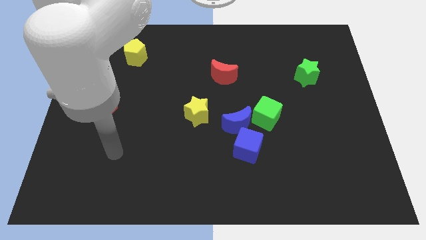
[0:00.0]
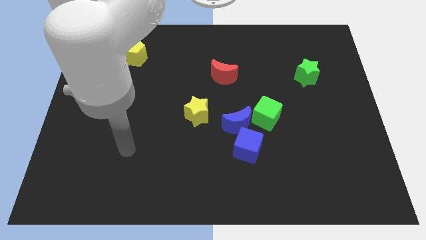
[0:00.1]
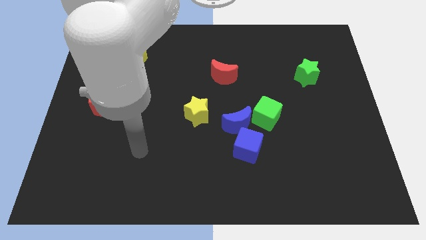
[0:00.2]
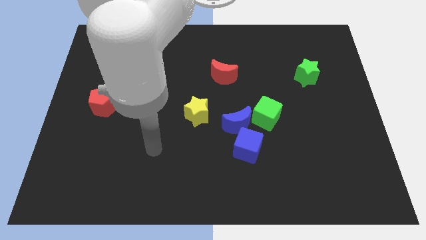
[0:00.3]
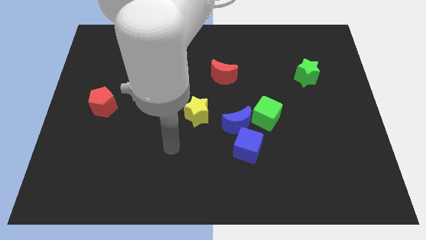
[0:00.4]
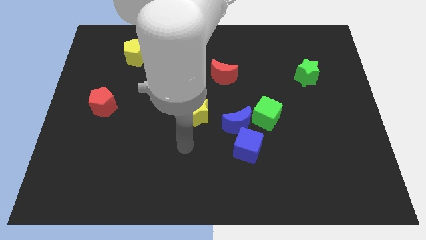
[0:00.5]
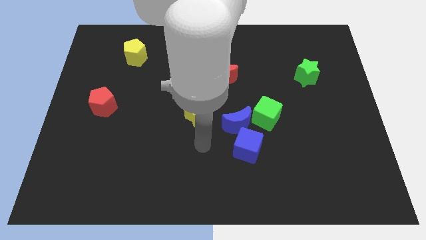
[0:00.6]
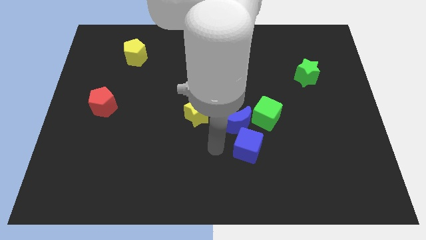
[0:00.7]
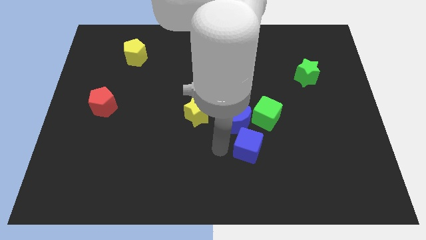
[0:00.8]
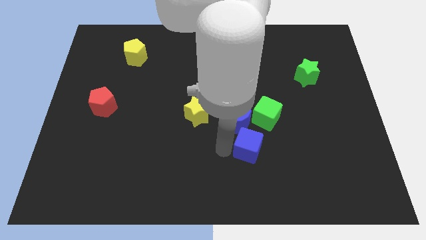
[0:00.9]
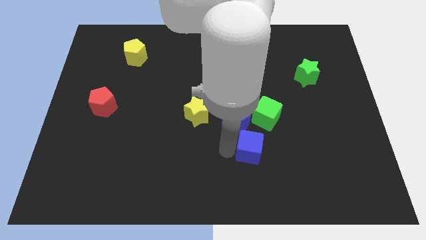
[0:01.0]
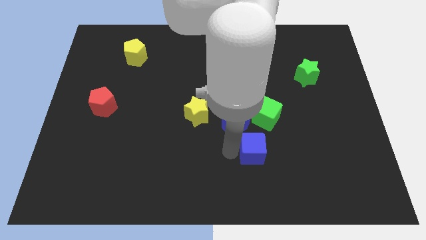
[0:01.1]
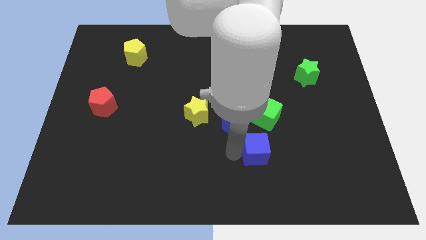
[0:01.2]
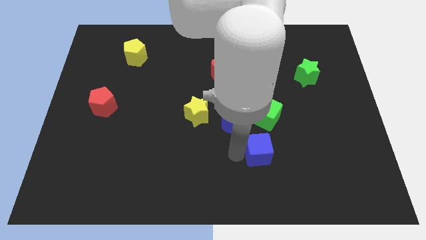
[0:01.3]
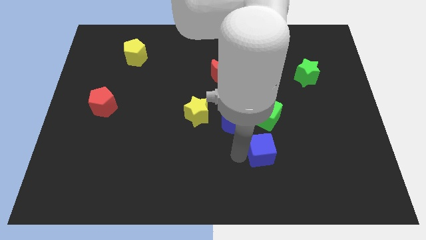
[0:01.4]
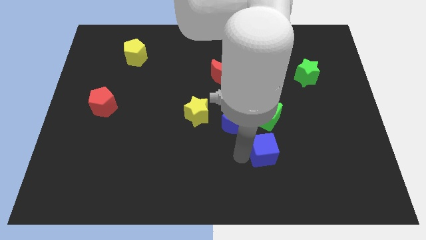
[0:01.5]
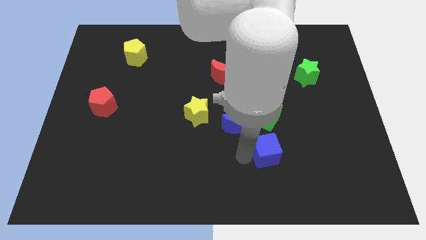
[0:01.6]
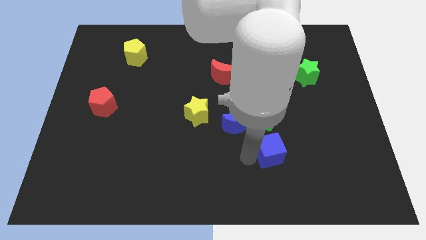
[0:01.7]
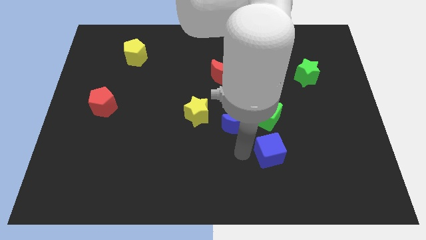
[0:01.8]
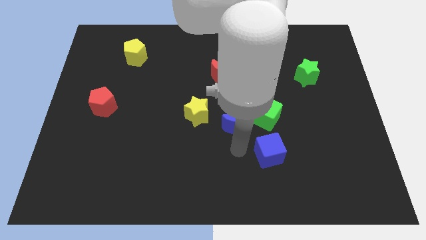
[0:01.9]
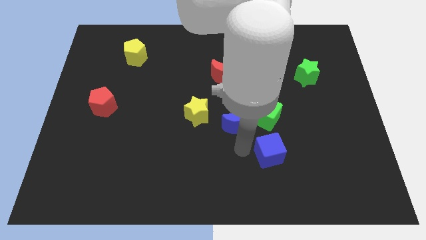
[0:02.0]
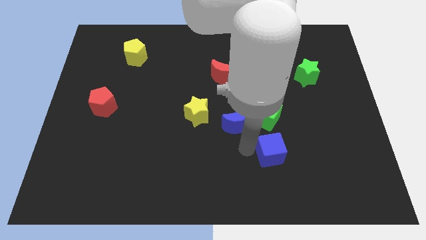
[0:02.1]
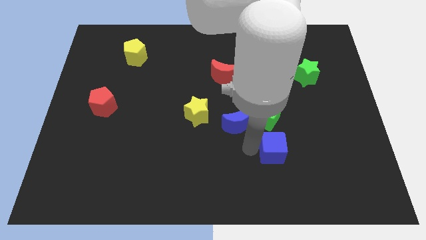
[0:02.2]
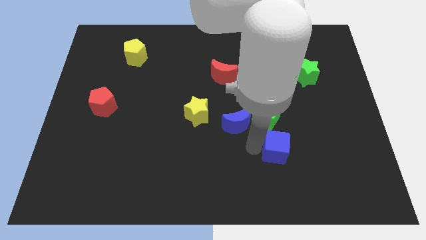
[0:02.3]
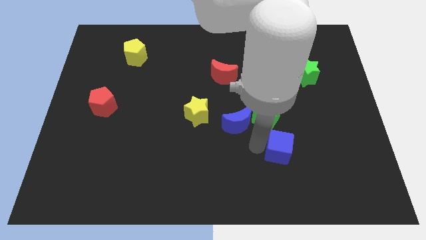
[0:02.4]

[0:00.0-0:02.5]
slightly push the blue cube right

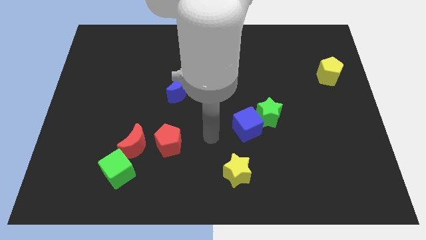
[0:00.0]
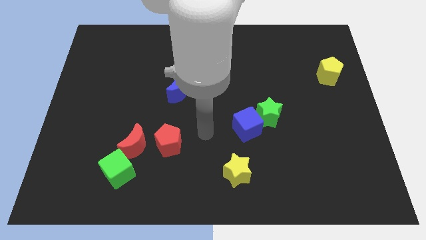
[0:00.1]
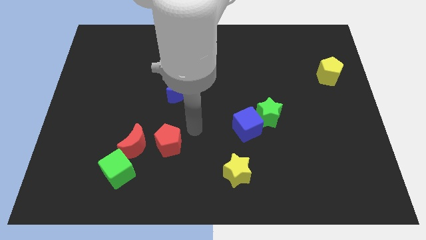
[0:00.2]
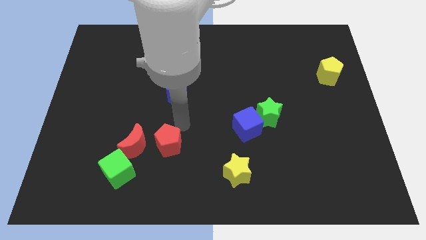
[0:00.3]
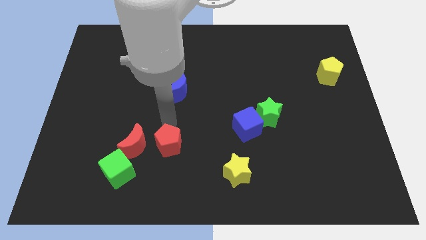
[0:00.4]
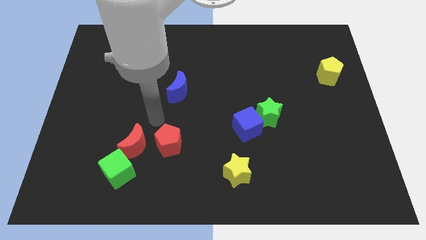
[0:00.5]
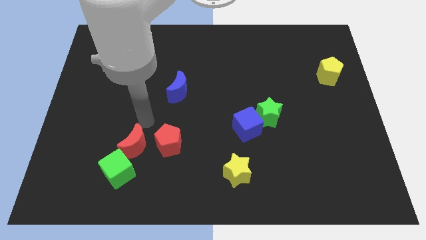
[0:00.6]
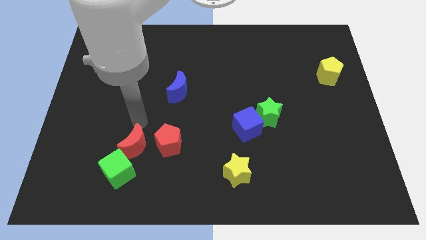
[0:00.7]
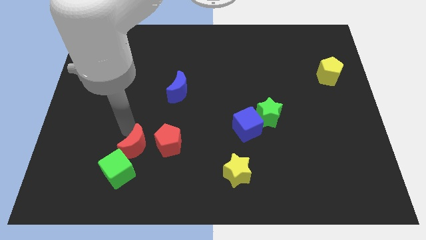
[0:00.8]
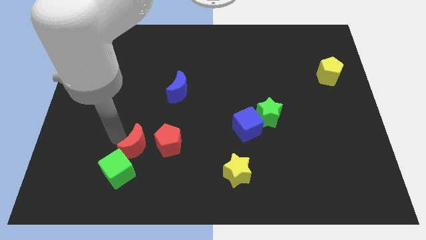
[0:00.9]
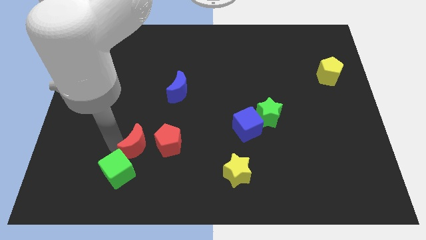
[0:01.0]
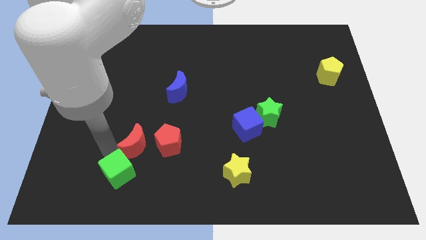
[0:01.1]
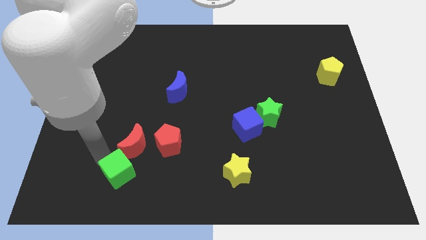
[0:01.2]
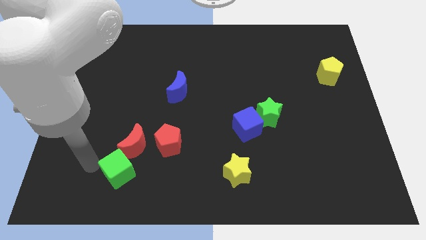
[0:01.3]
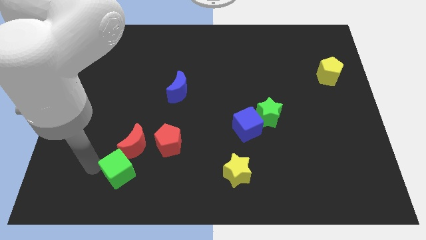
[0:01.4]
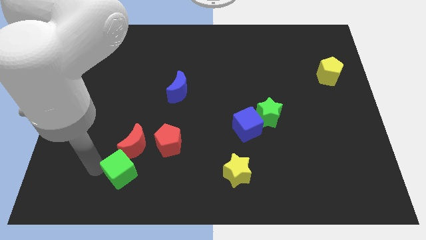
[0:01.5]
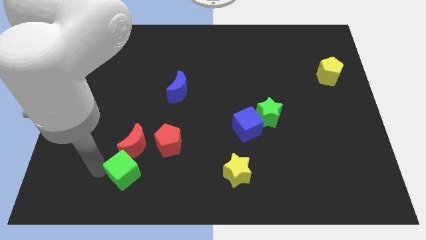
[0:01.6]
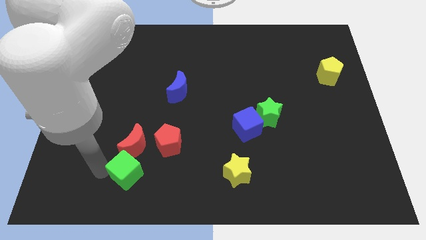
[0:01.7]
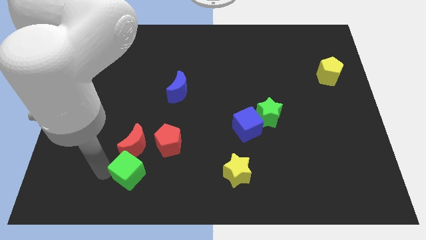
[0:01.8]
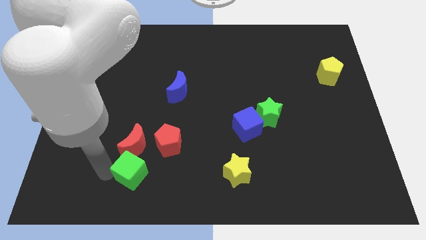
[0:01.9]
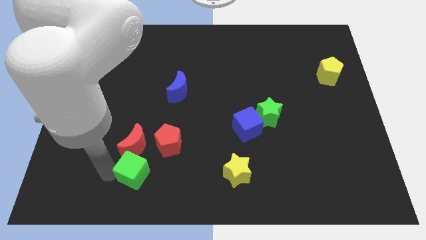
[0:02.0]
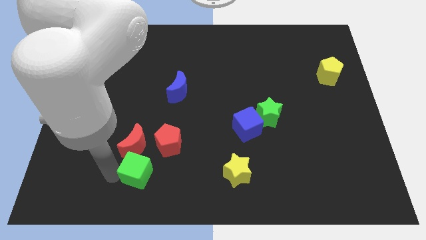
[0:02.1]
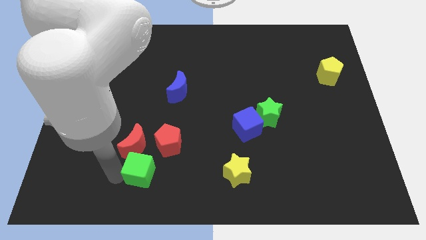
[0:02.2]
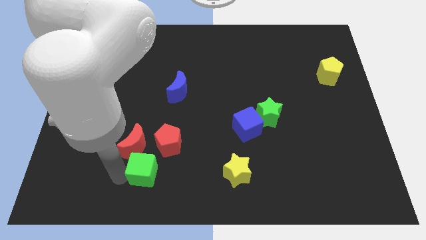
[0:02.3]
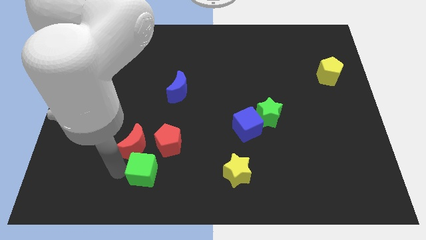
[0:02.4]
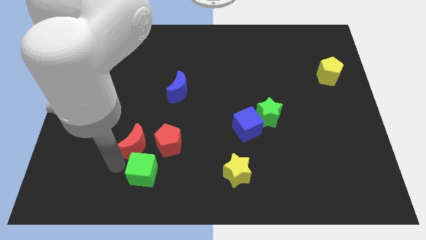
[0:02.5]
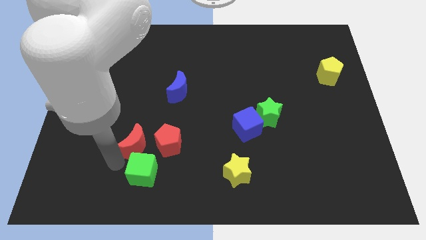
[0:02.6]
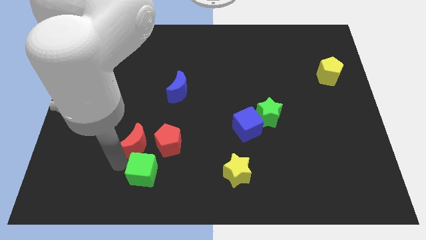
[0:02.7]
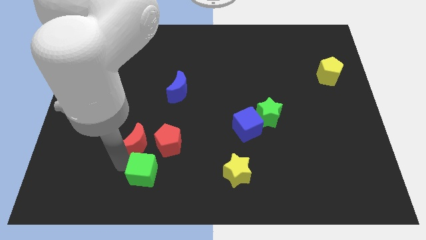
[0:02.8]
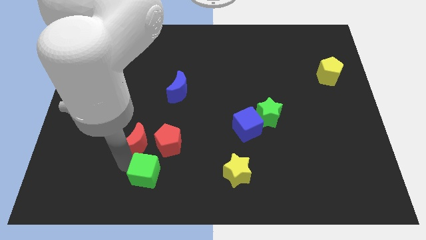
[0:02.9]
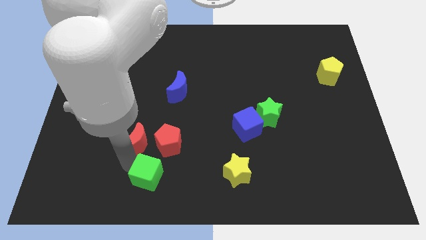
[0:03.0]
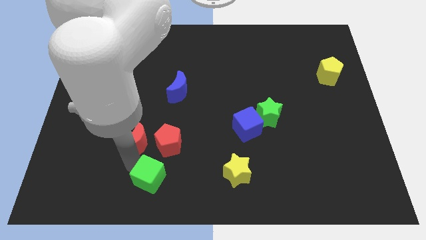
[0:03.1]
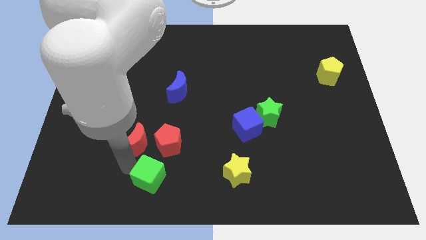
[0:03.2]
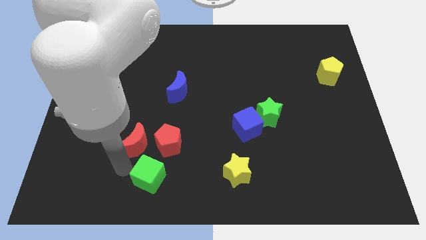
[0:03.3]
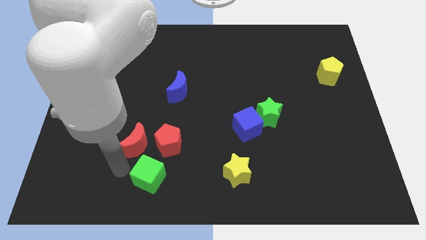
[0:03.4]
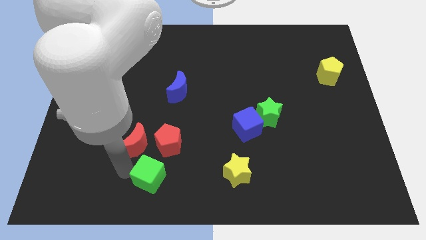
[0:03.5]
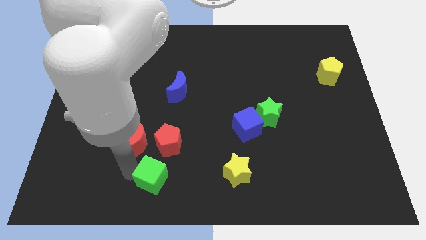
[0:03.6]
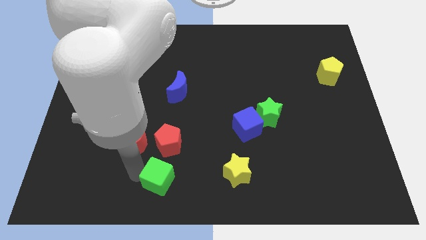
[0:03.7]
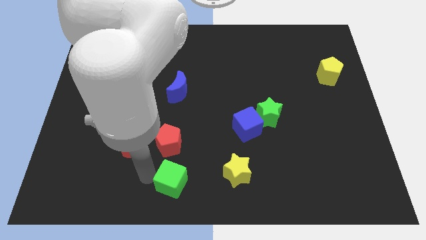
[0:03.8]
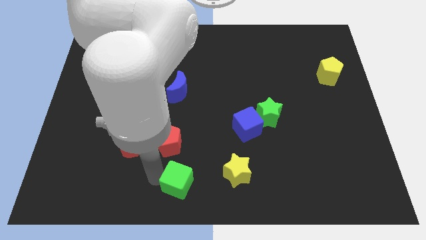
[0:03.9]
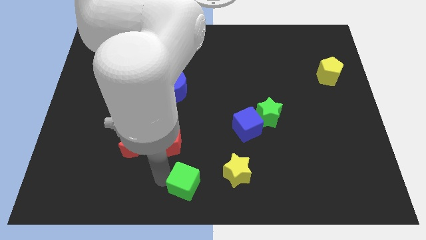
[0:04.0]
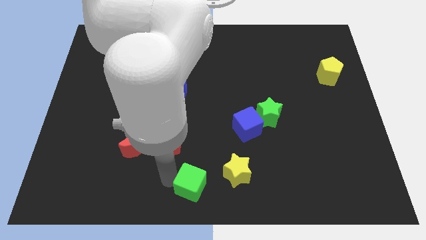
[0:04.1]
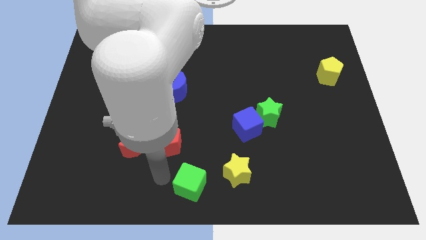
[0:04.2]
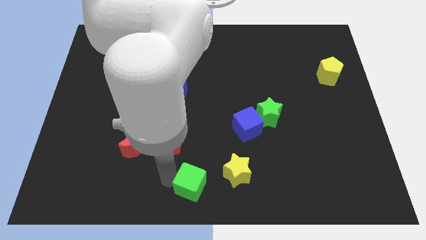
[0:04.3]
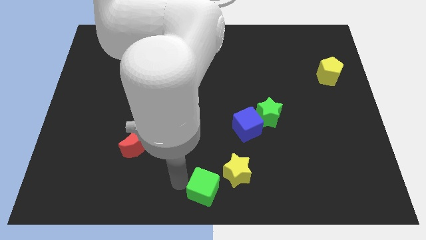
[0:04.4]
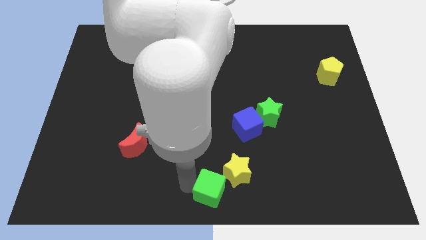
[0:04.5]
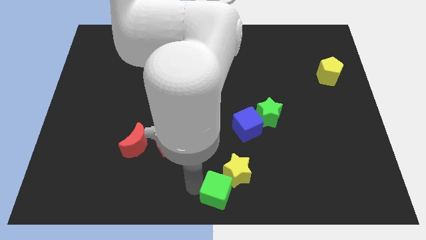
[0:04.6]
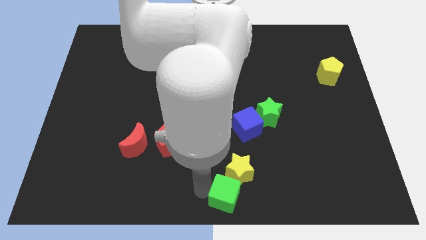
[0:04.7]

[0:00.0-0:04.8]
push the green cube to the right

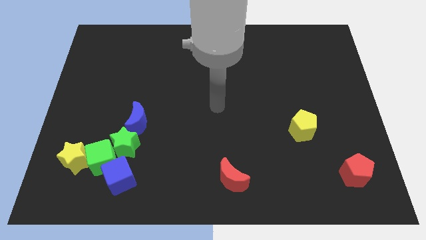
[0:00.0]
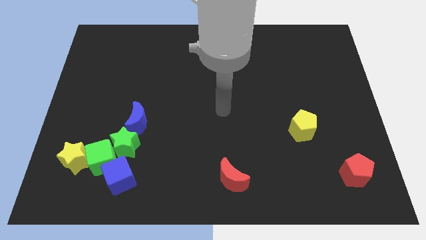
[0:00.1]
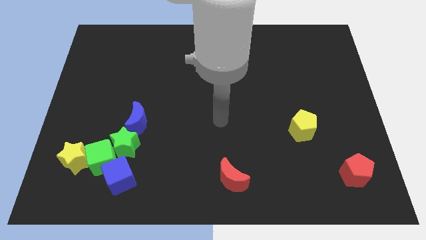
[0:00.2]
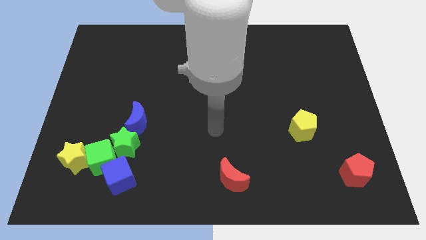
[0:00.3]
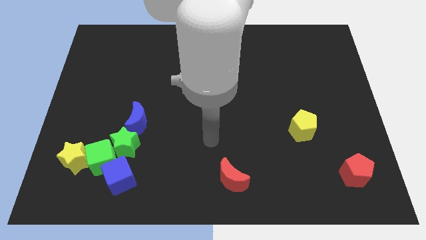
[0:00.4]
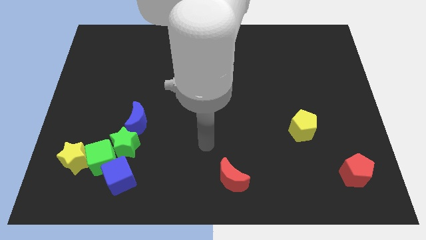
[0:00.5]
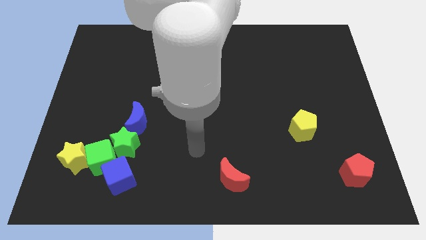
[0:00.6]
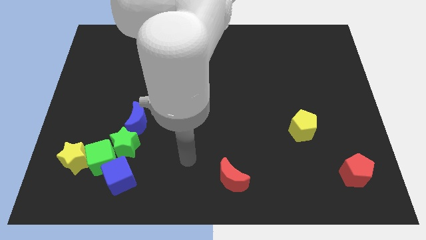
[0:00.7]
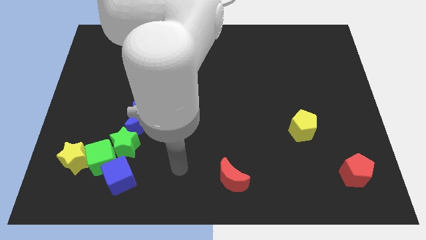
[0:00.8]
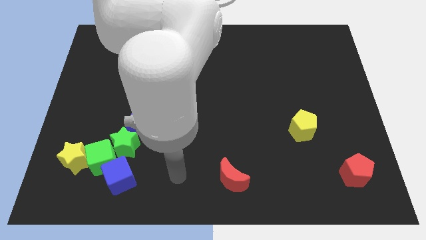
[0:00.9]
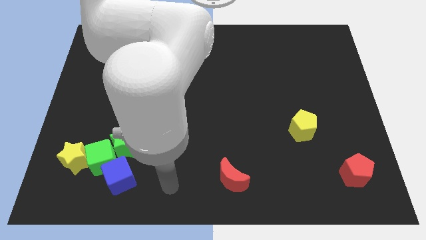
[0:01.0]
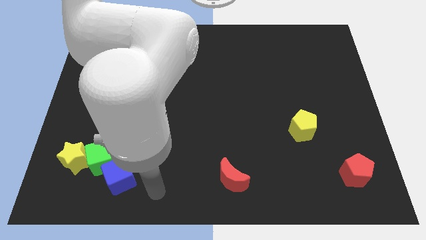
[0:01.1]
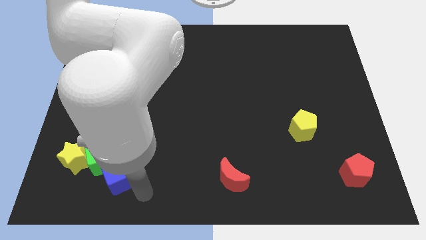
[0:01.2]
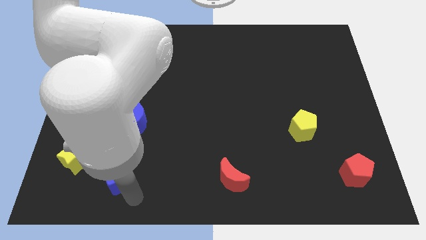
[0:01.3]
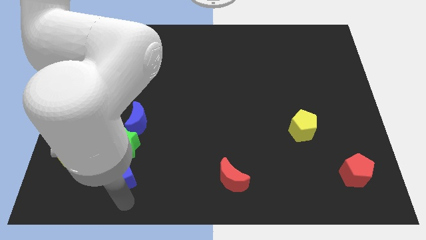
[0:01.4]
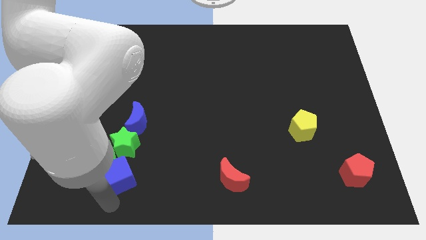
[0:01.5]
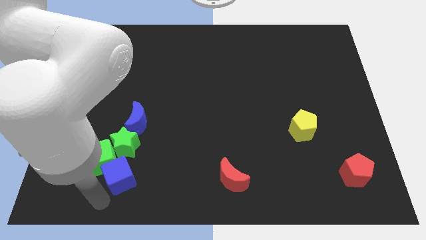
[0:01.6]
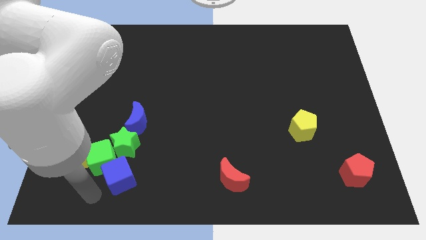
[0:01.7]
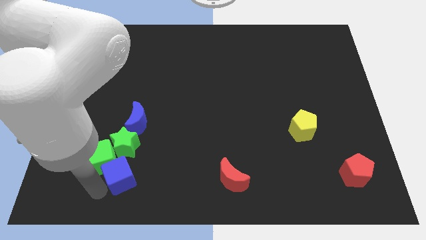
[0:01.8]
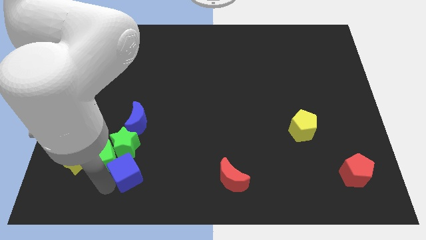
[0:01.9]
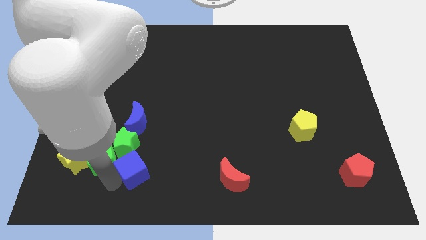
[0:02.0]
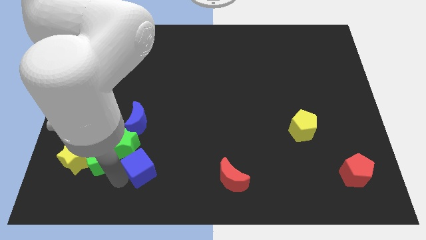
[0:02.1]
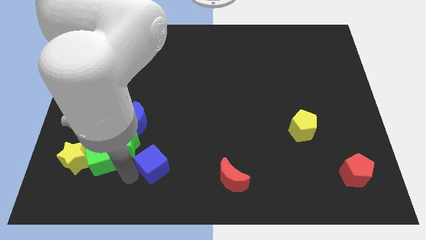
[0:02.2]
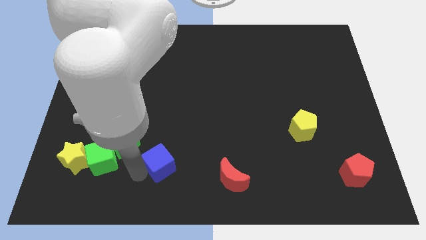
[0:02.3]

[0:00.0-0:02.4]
slightly push the blue cube diagonally upwards and to the right
